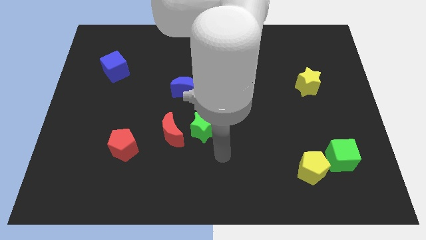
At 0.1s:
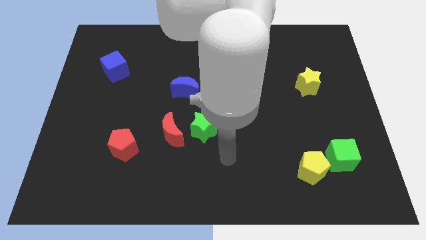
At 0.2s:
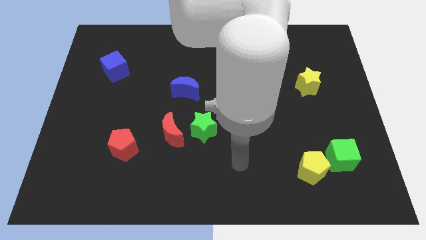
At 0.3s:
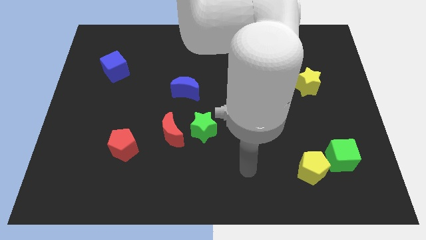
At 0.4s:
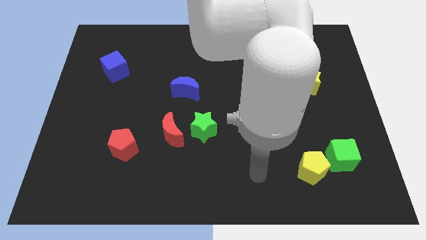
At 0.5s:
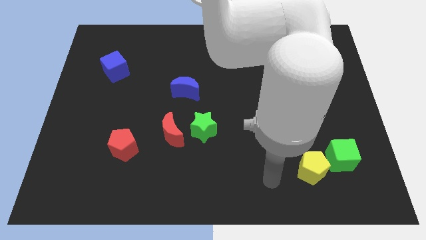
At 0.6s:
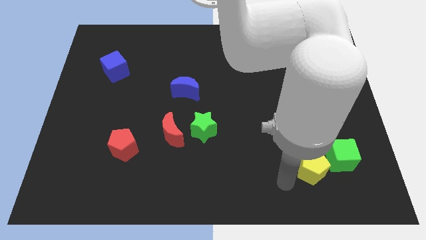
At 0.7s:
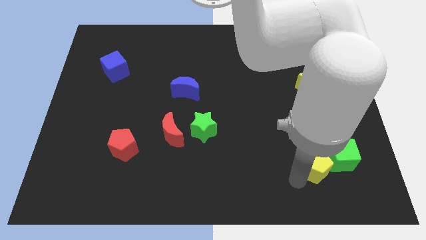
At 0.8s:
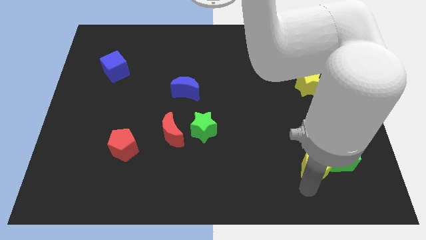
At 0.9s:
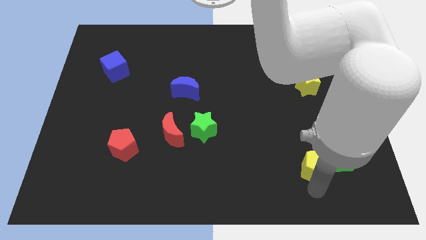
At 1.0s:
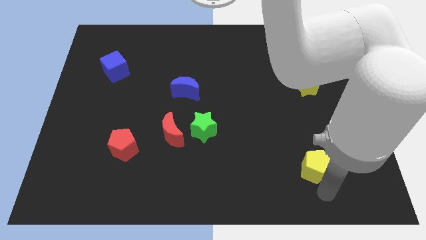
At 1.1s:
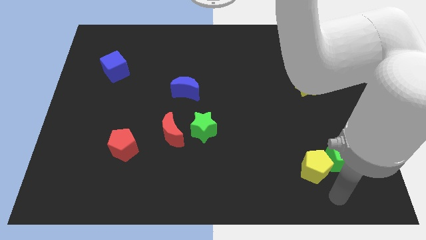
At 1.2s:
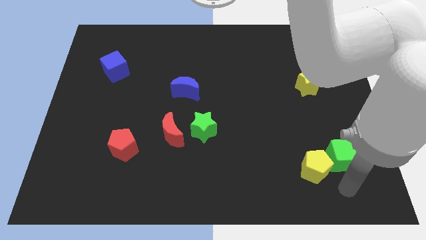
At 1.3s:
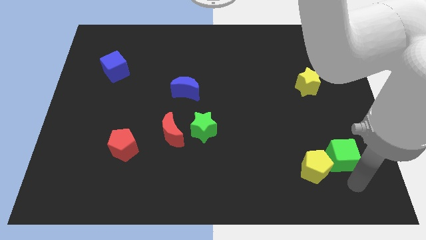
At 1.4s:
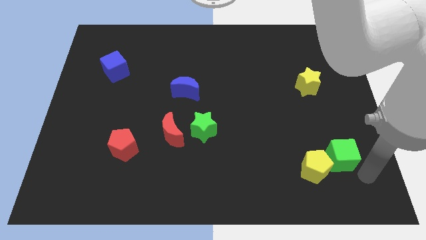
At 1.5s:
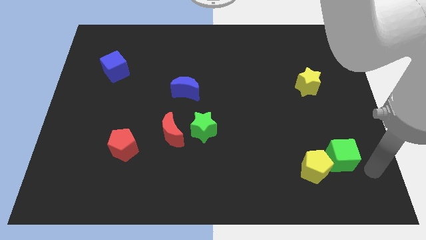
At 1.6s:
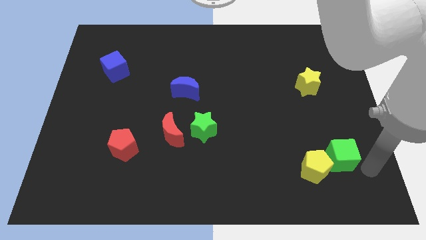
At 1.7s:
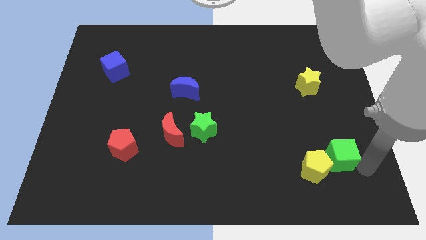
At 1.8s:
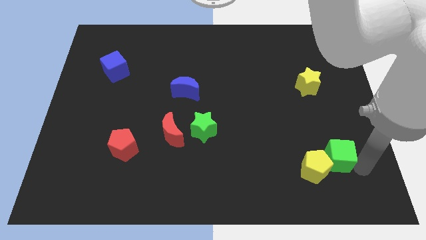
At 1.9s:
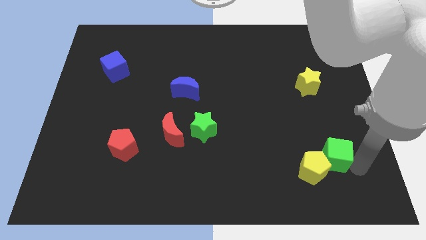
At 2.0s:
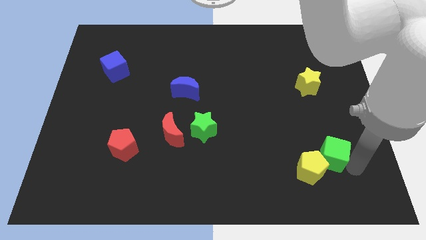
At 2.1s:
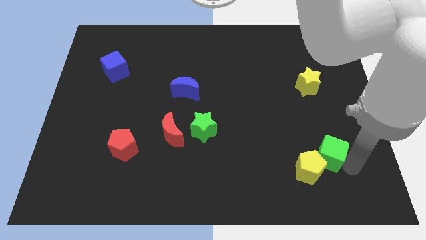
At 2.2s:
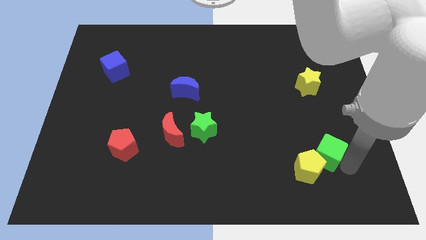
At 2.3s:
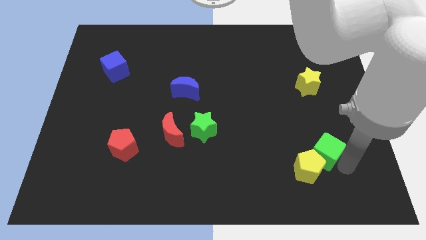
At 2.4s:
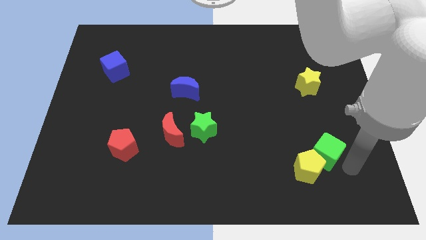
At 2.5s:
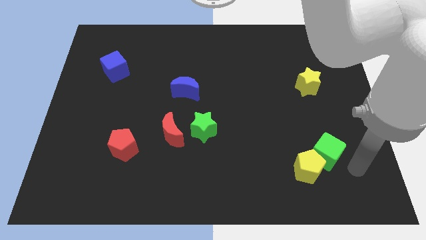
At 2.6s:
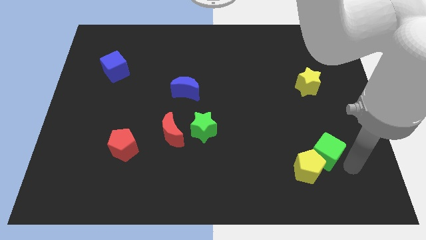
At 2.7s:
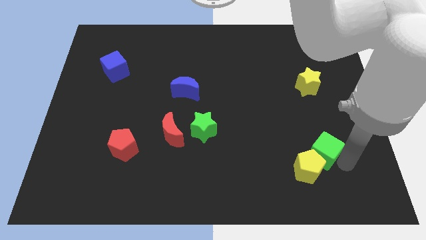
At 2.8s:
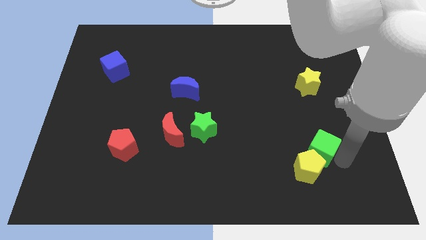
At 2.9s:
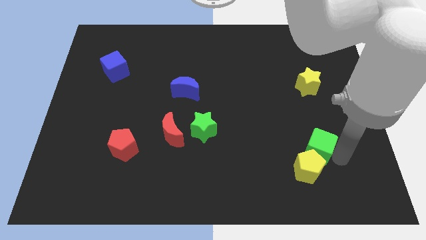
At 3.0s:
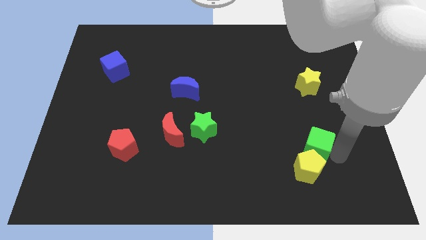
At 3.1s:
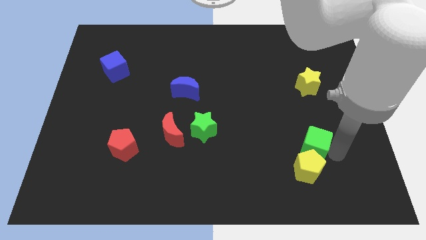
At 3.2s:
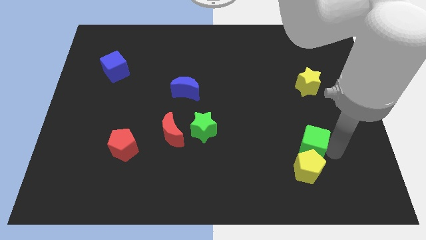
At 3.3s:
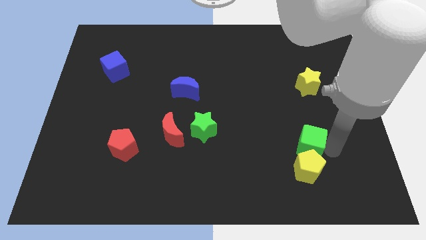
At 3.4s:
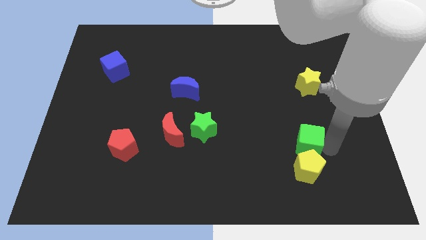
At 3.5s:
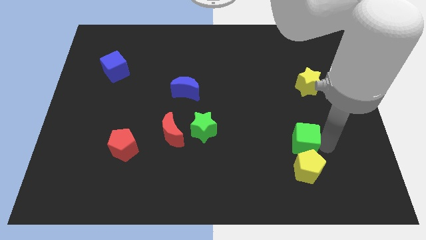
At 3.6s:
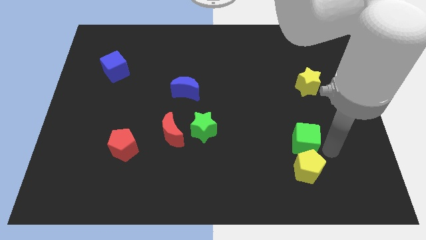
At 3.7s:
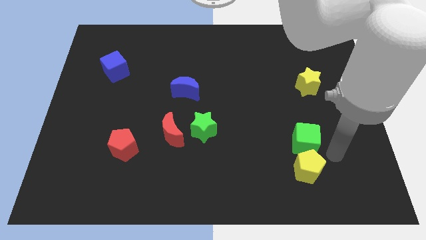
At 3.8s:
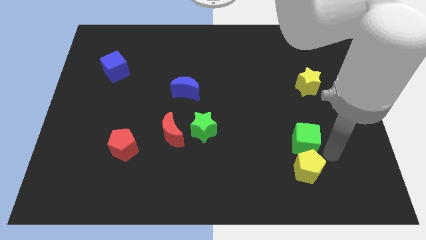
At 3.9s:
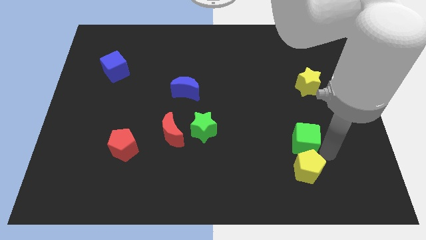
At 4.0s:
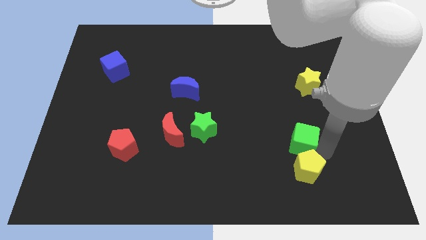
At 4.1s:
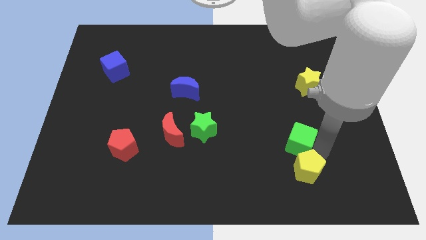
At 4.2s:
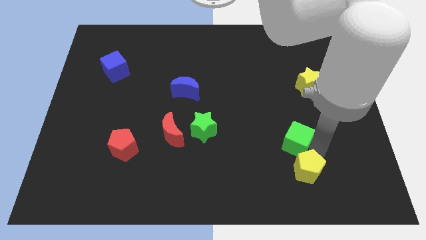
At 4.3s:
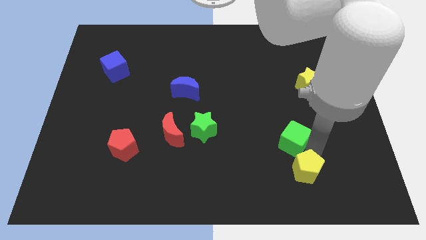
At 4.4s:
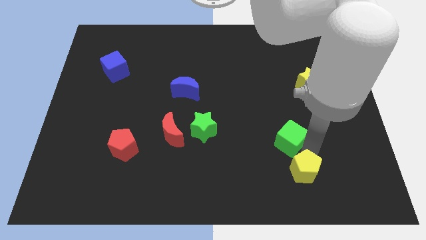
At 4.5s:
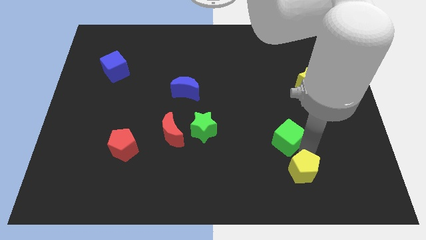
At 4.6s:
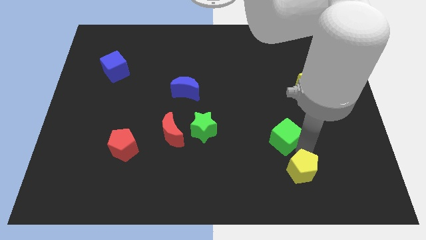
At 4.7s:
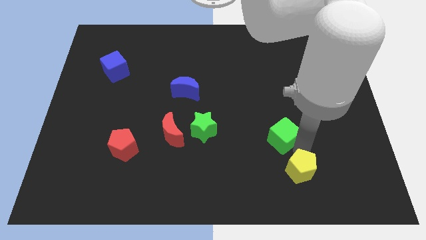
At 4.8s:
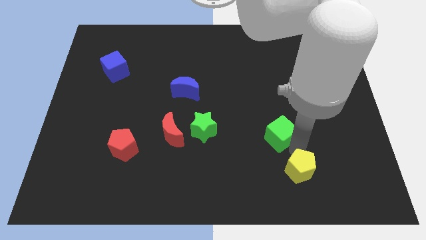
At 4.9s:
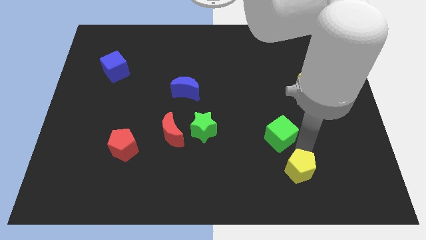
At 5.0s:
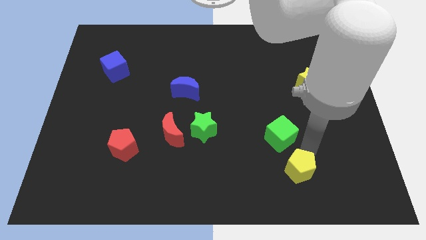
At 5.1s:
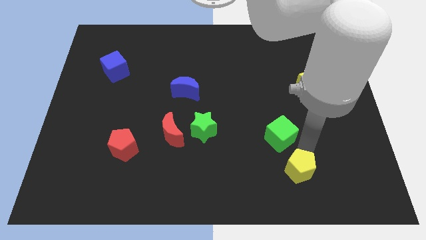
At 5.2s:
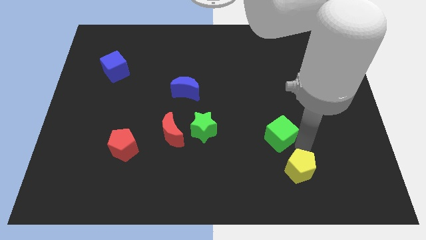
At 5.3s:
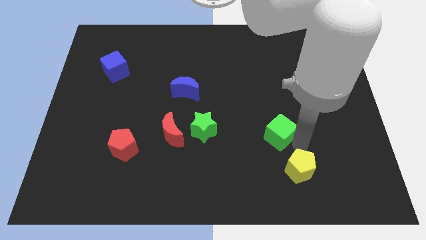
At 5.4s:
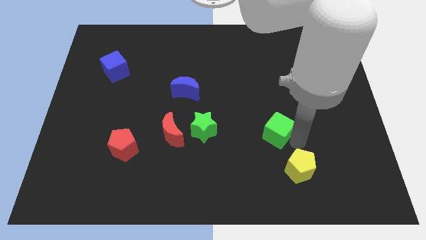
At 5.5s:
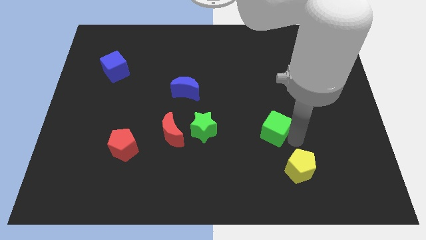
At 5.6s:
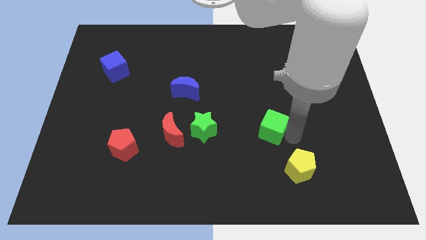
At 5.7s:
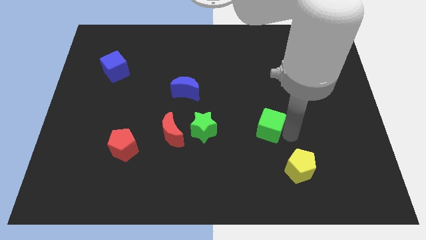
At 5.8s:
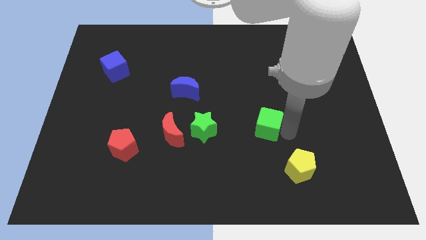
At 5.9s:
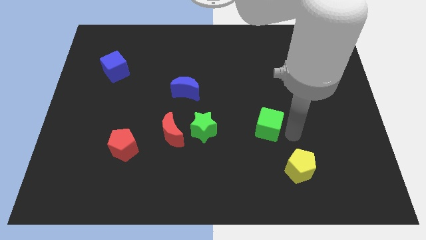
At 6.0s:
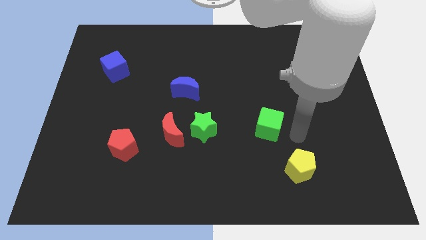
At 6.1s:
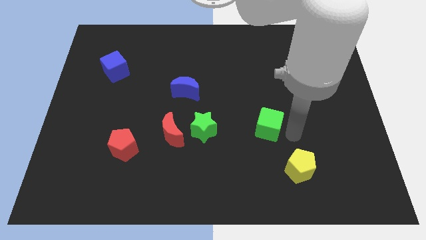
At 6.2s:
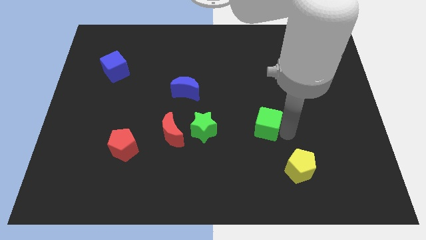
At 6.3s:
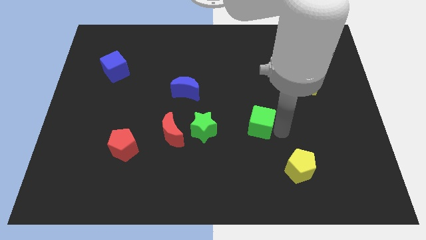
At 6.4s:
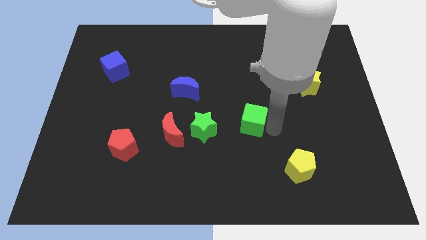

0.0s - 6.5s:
slide the green cube to the center of the board
